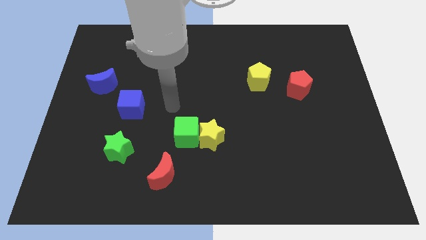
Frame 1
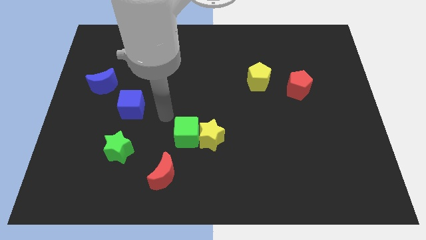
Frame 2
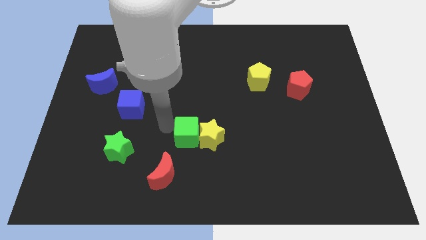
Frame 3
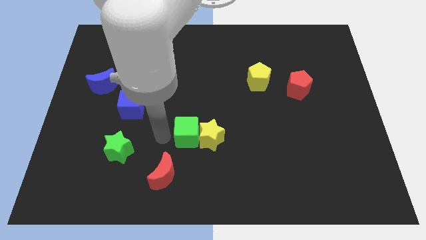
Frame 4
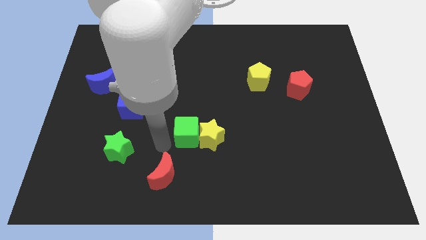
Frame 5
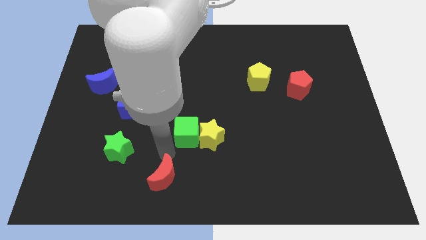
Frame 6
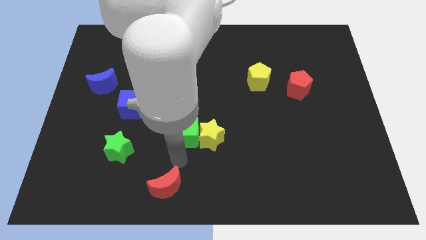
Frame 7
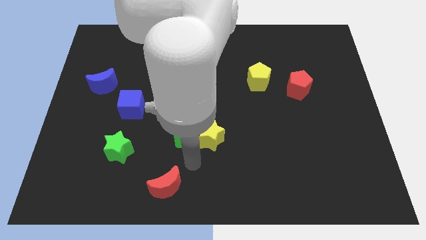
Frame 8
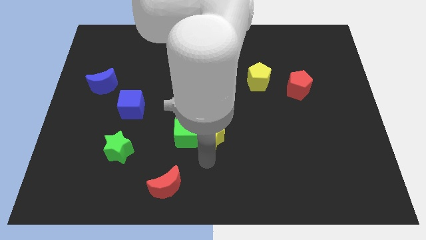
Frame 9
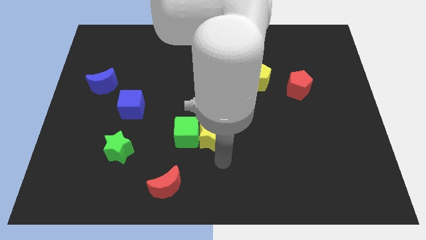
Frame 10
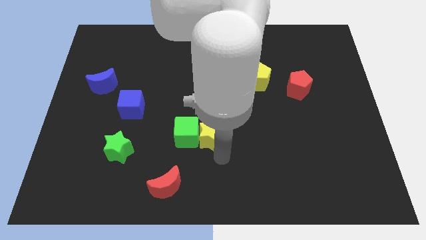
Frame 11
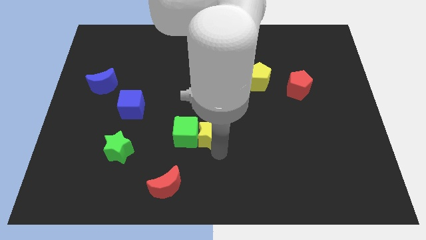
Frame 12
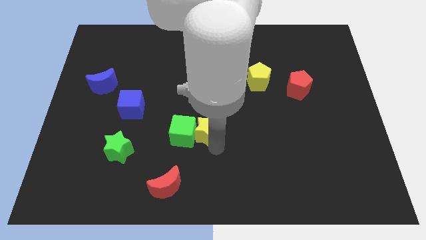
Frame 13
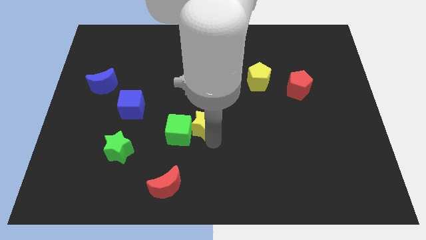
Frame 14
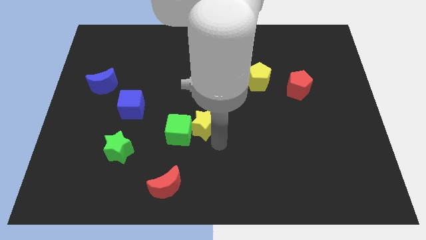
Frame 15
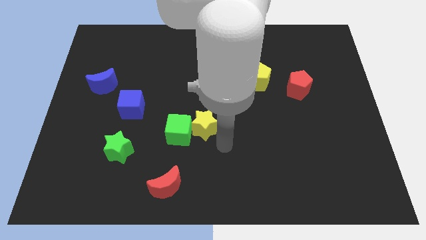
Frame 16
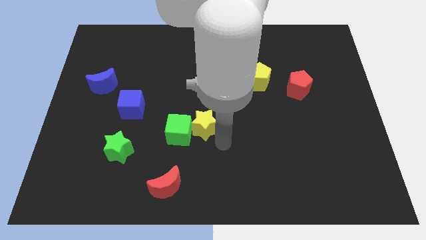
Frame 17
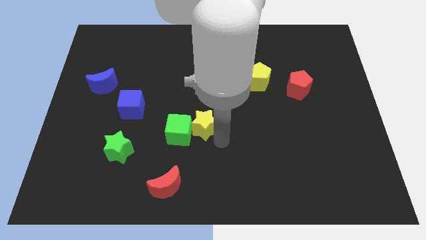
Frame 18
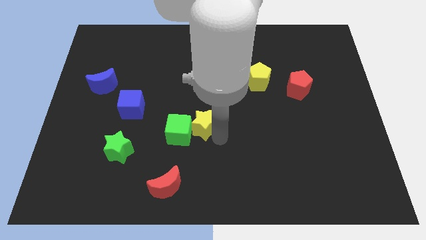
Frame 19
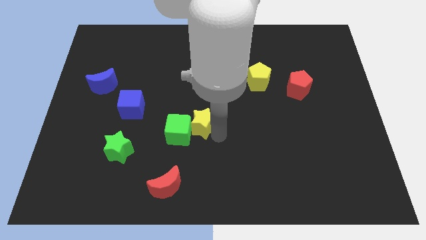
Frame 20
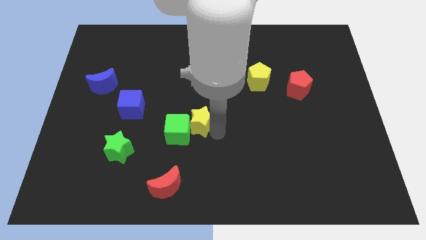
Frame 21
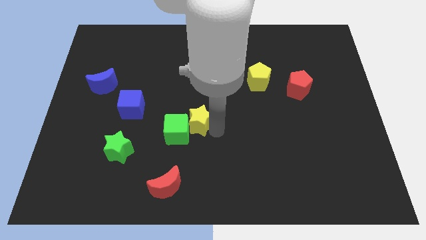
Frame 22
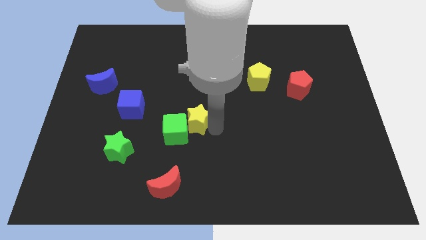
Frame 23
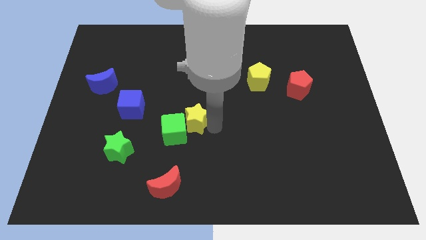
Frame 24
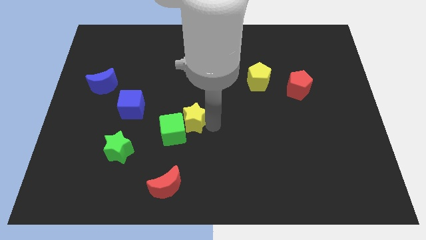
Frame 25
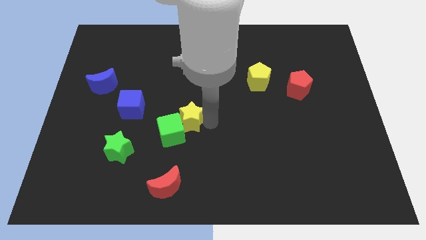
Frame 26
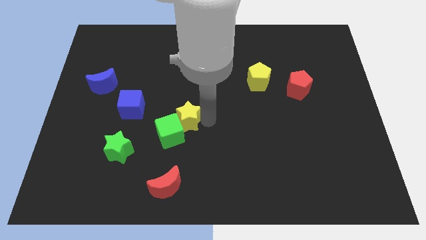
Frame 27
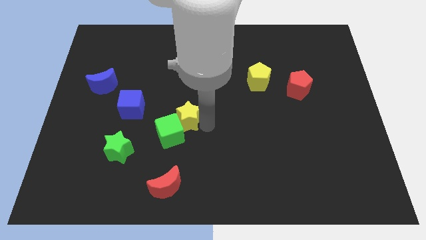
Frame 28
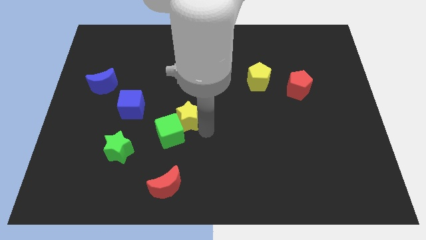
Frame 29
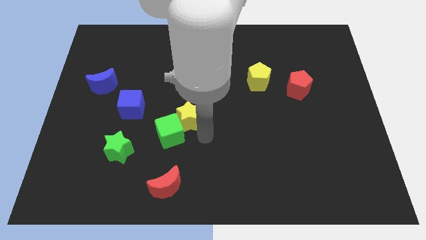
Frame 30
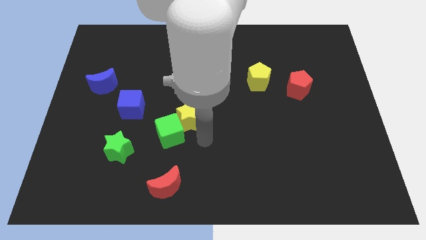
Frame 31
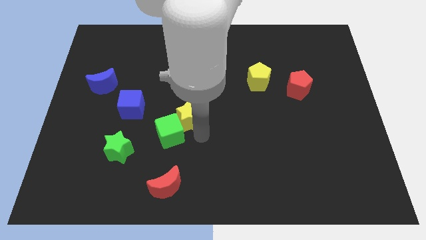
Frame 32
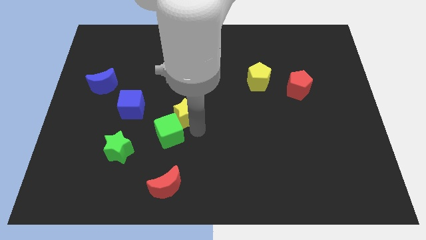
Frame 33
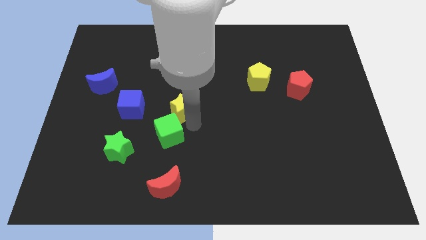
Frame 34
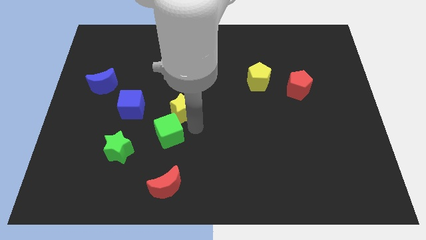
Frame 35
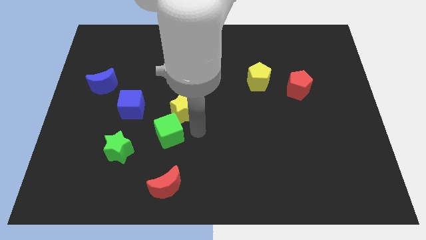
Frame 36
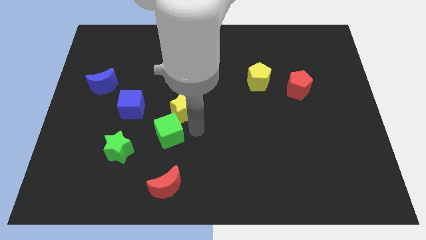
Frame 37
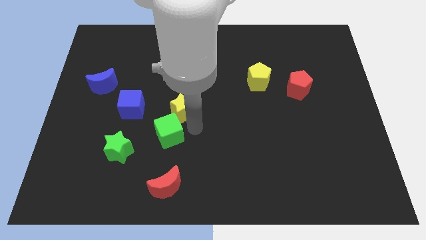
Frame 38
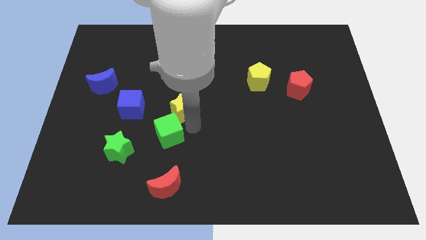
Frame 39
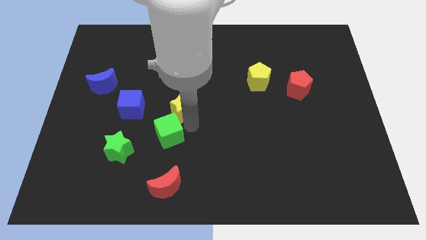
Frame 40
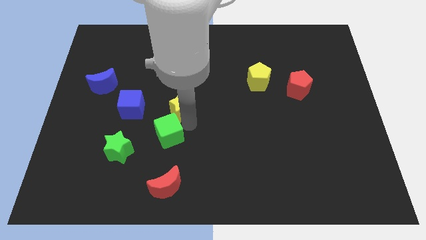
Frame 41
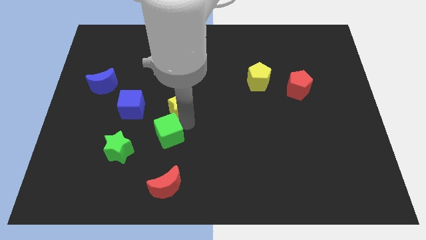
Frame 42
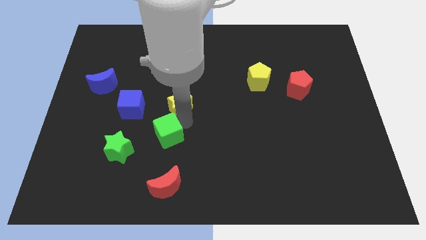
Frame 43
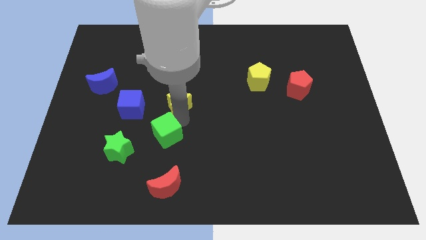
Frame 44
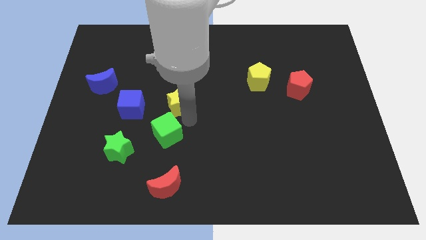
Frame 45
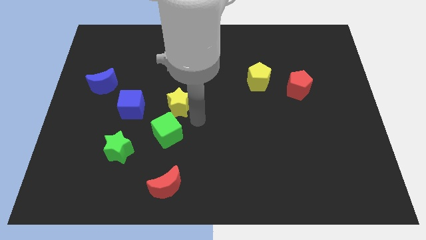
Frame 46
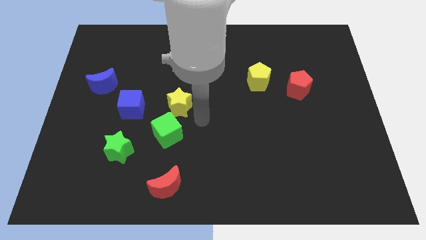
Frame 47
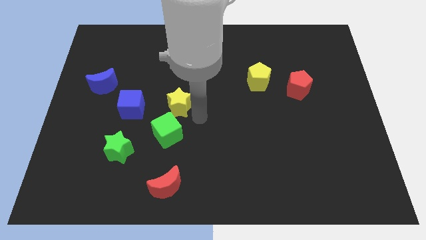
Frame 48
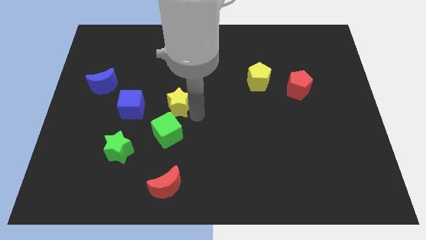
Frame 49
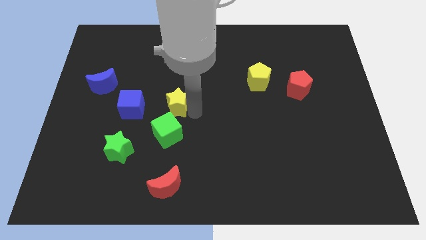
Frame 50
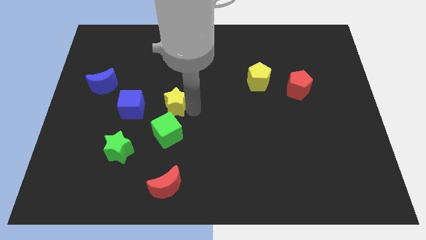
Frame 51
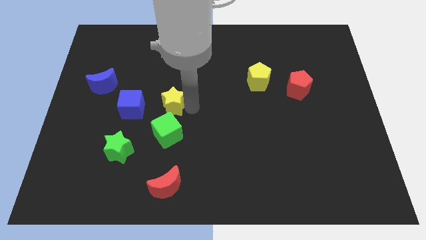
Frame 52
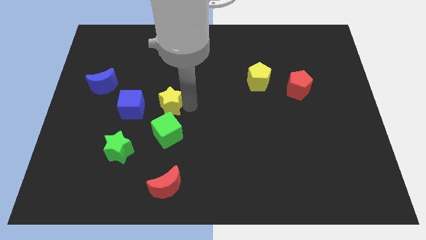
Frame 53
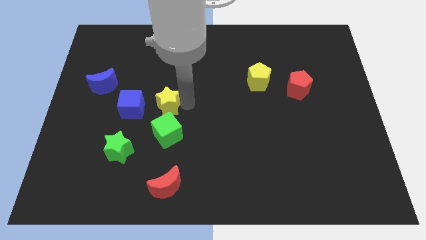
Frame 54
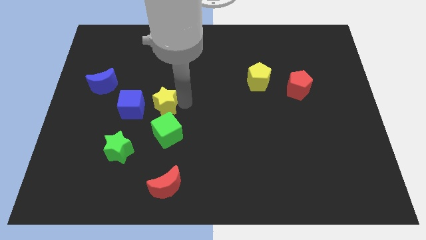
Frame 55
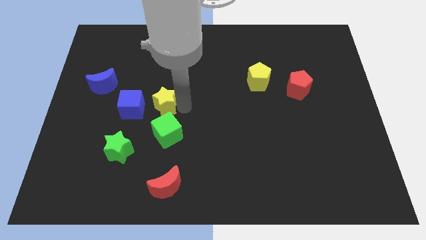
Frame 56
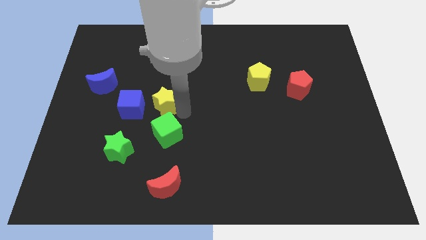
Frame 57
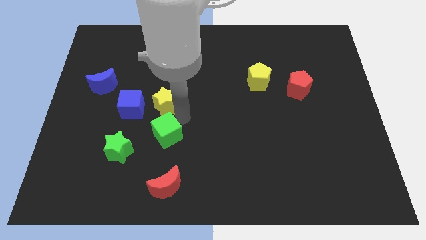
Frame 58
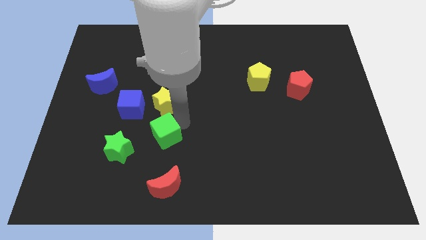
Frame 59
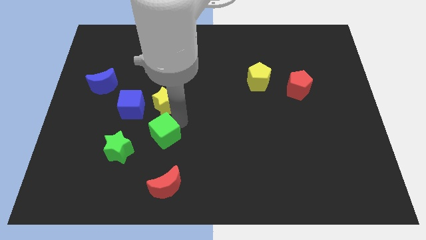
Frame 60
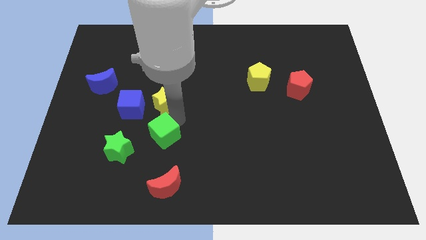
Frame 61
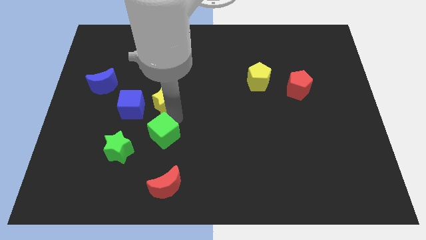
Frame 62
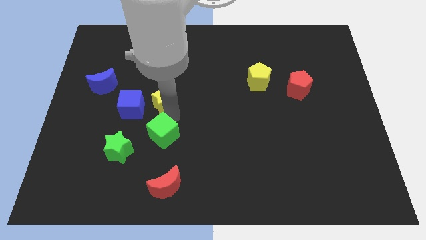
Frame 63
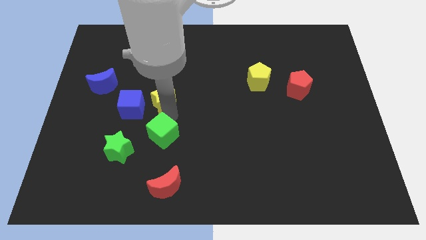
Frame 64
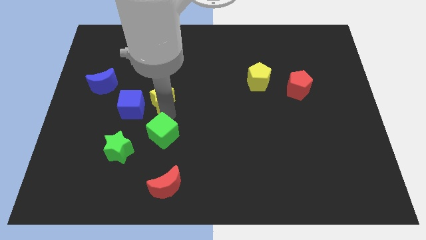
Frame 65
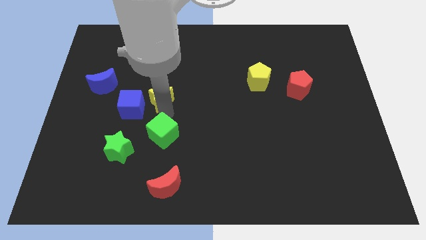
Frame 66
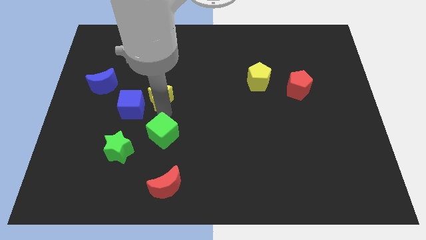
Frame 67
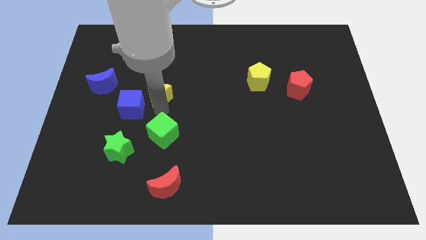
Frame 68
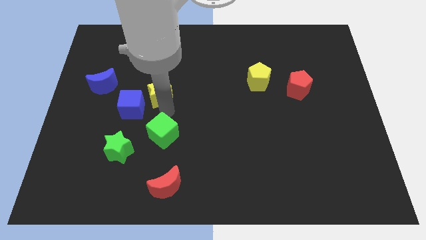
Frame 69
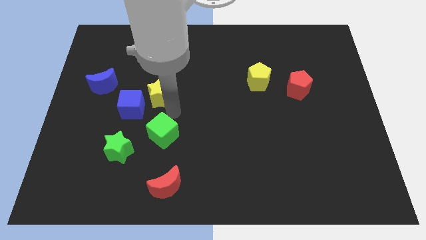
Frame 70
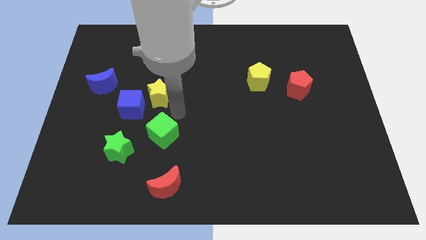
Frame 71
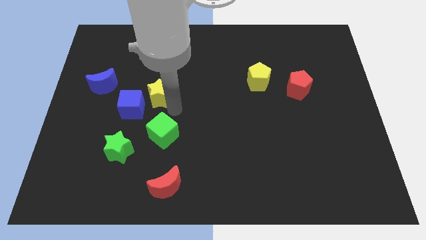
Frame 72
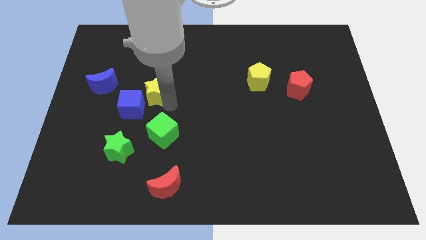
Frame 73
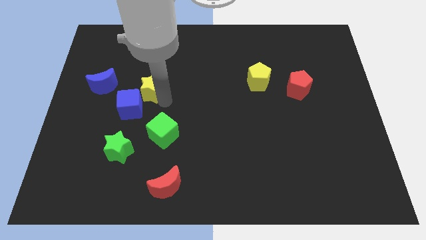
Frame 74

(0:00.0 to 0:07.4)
slide the yellow star upwards and to the left diagonally

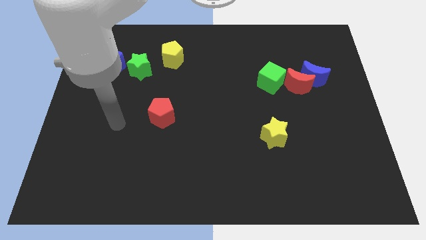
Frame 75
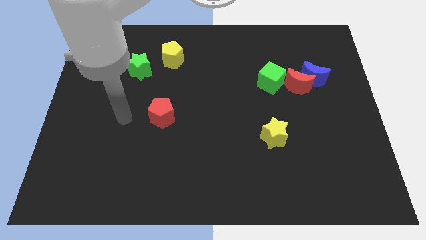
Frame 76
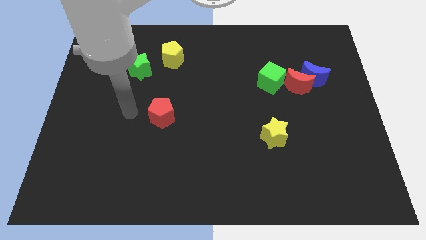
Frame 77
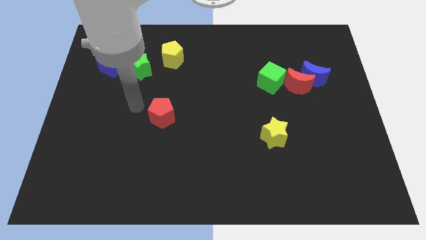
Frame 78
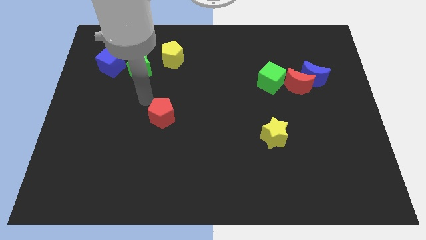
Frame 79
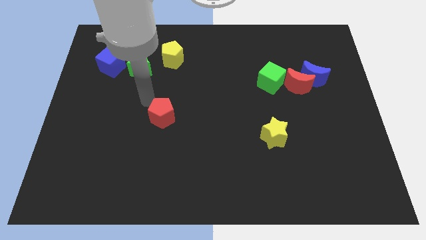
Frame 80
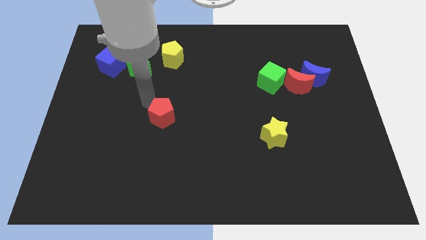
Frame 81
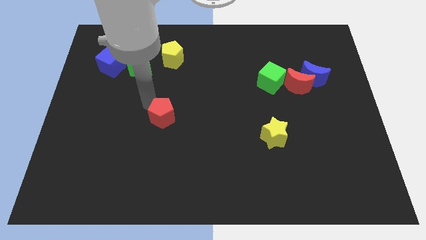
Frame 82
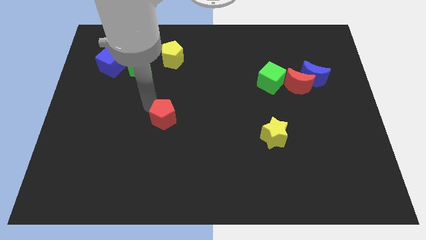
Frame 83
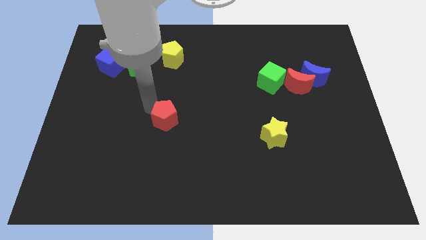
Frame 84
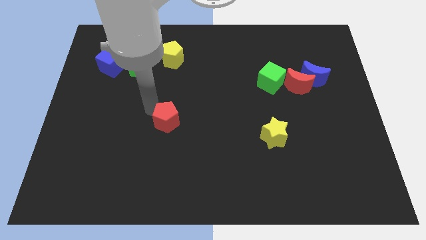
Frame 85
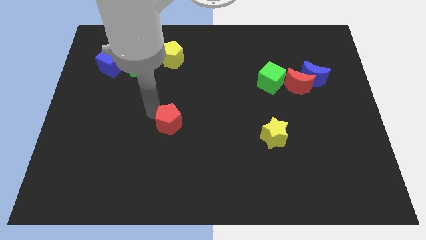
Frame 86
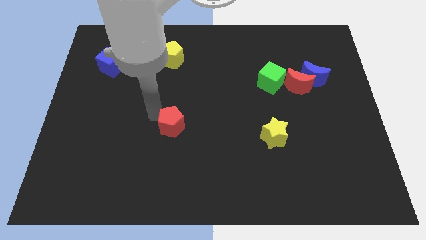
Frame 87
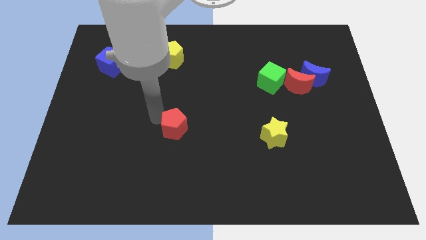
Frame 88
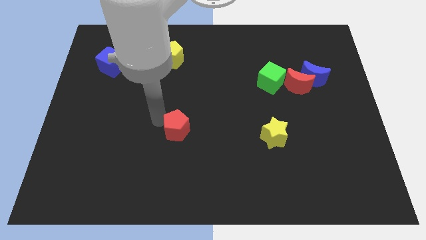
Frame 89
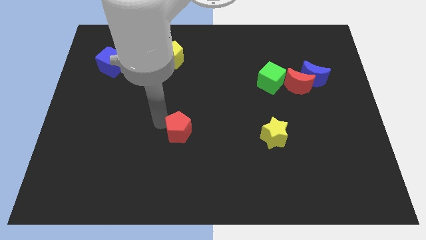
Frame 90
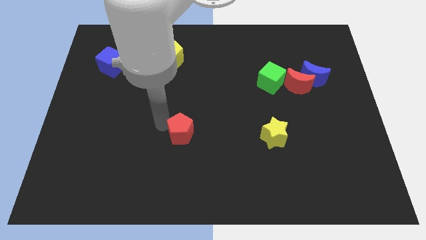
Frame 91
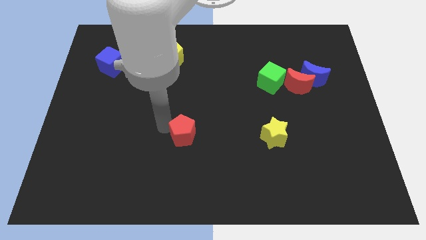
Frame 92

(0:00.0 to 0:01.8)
move the red pentagon down and right diagonally a bit
